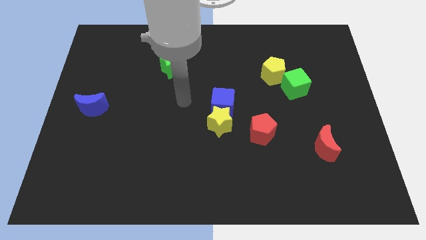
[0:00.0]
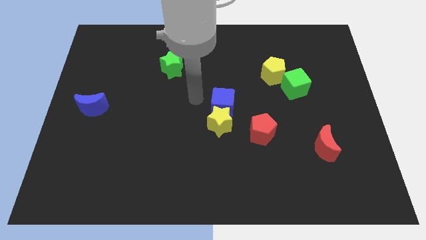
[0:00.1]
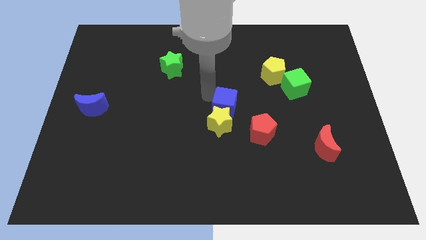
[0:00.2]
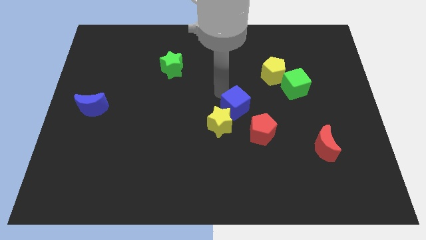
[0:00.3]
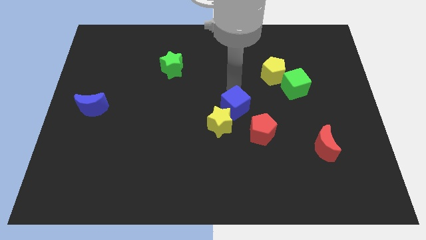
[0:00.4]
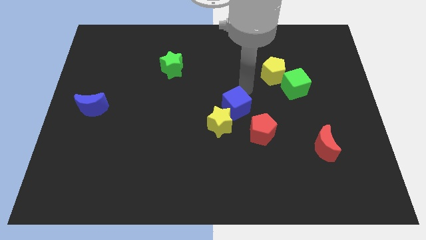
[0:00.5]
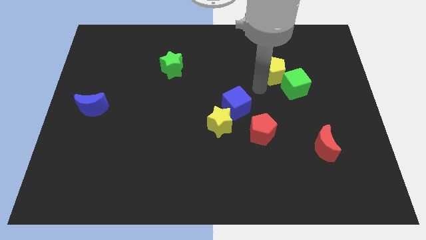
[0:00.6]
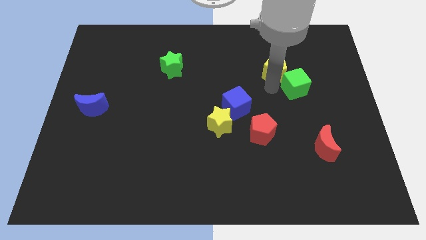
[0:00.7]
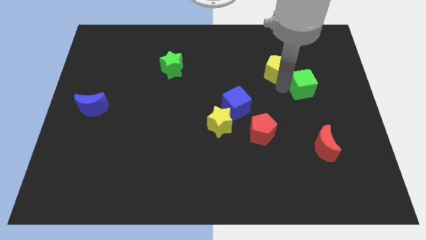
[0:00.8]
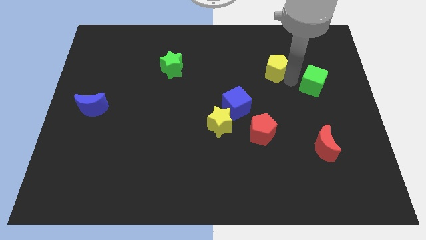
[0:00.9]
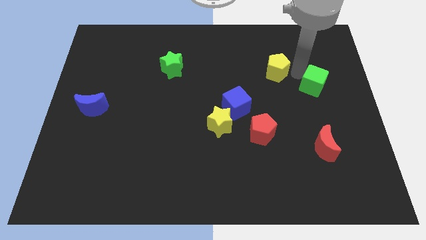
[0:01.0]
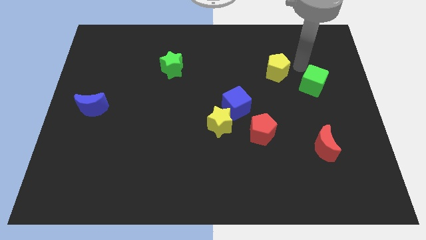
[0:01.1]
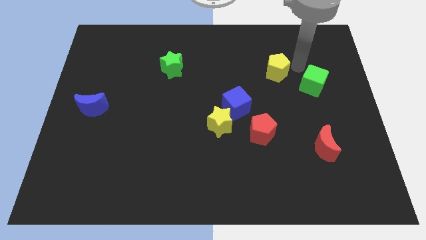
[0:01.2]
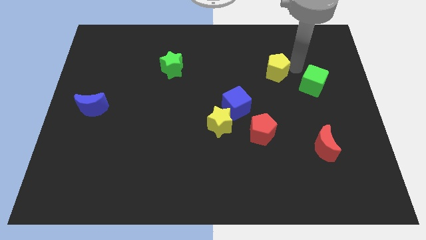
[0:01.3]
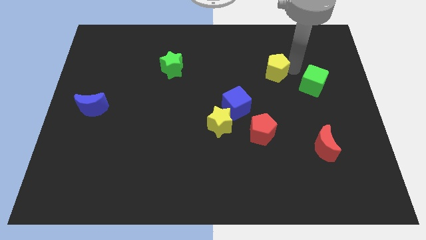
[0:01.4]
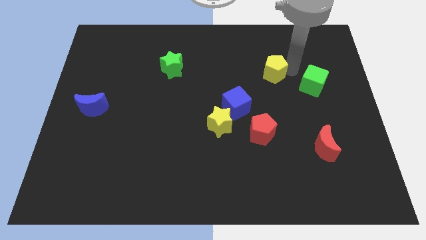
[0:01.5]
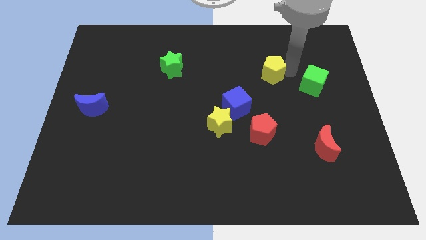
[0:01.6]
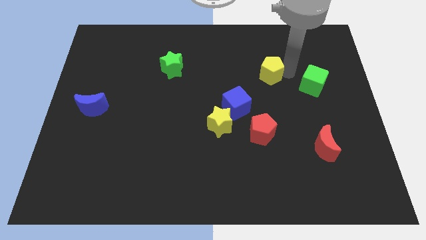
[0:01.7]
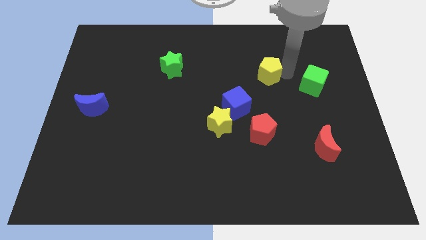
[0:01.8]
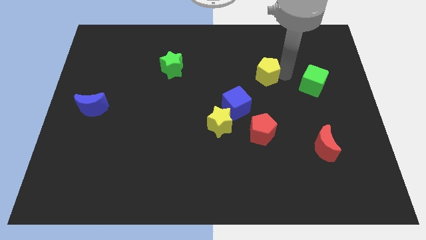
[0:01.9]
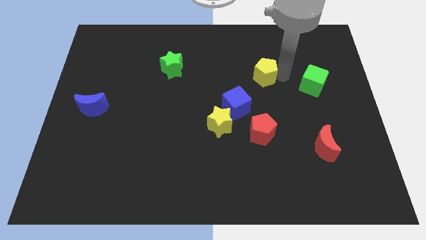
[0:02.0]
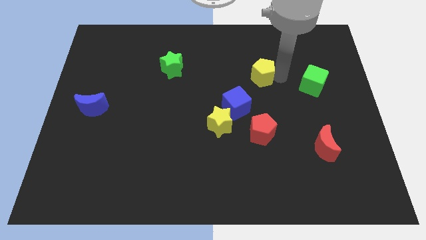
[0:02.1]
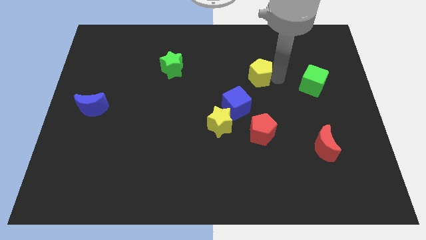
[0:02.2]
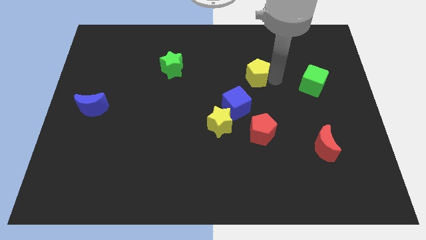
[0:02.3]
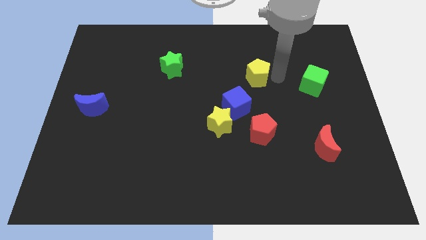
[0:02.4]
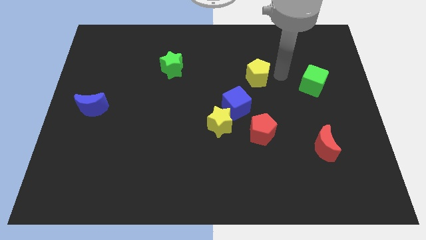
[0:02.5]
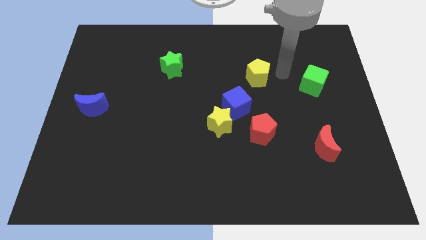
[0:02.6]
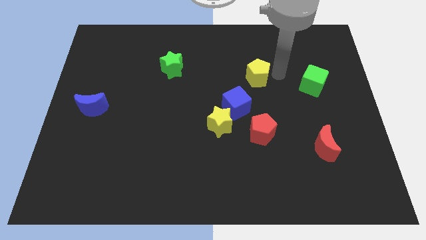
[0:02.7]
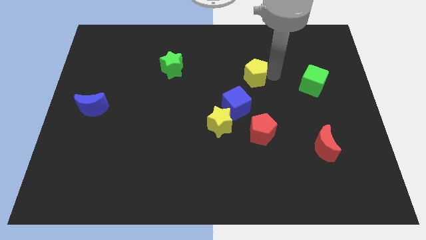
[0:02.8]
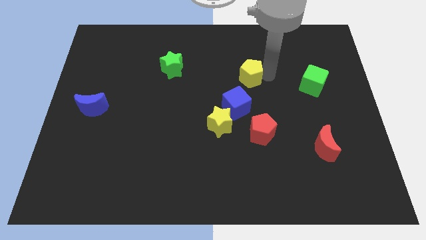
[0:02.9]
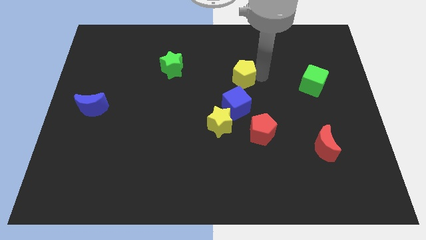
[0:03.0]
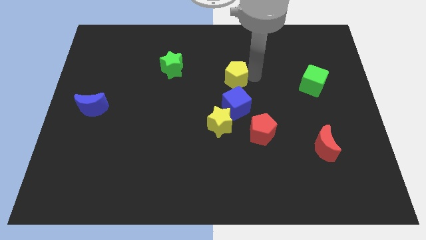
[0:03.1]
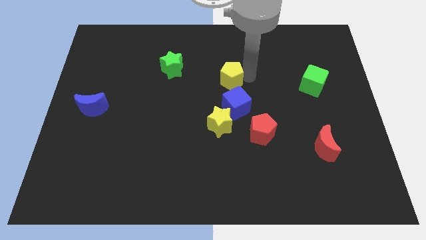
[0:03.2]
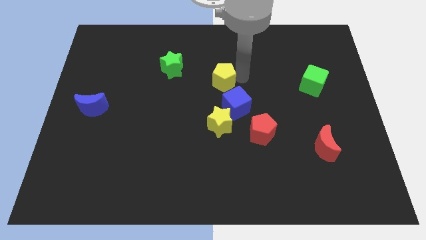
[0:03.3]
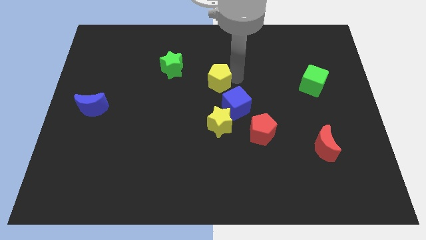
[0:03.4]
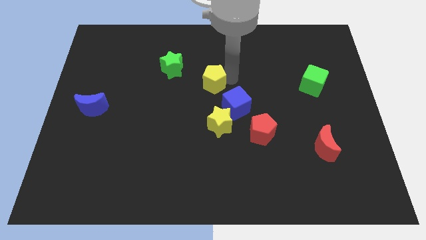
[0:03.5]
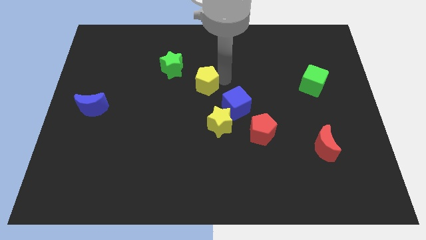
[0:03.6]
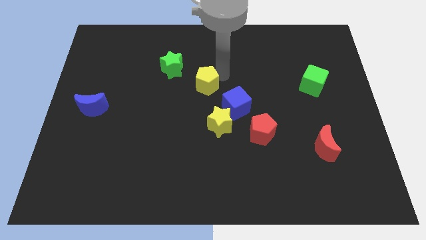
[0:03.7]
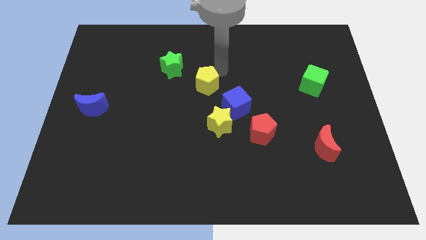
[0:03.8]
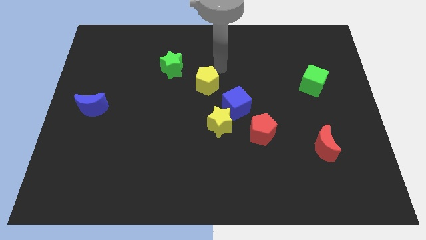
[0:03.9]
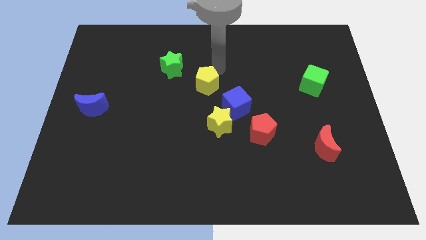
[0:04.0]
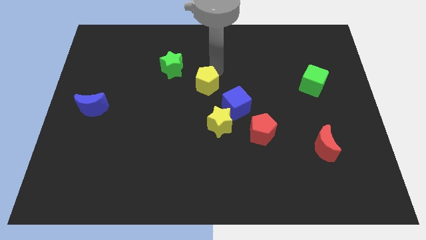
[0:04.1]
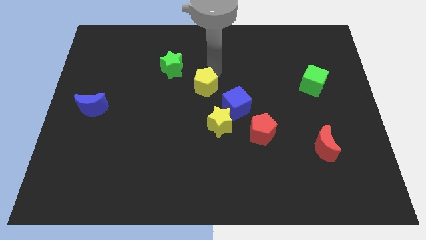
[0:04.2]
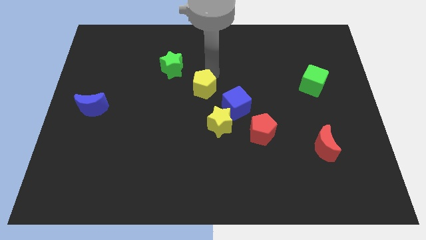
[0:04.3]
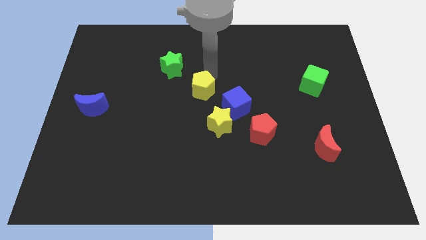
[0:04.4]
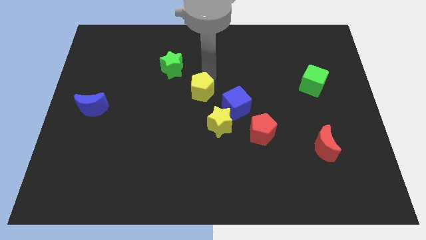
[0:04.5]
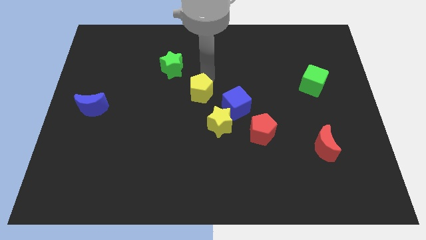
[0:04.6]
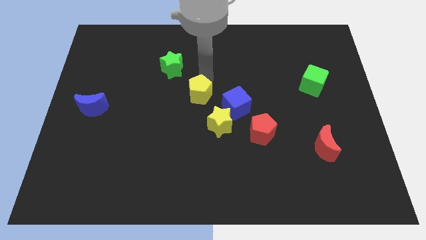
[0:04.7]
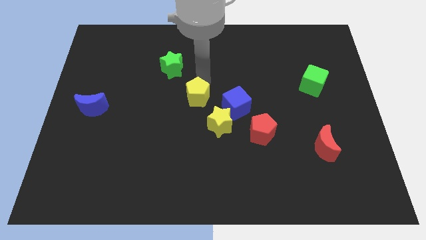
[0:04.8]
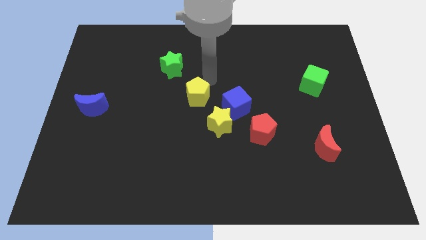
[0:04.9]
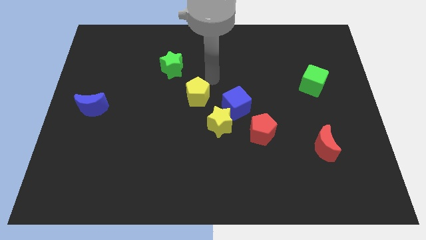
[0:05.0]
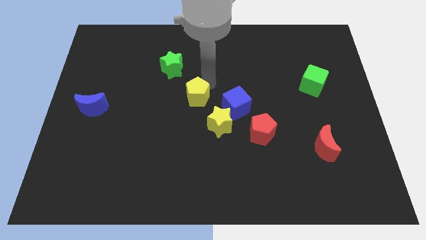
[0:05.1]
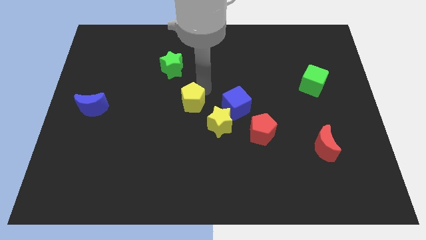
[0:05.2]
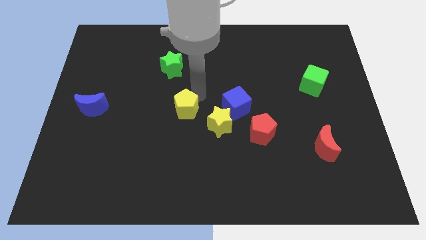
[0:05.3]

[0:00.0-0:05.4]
move the yellow pentagon to the left side of the yellow star
